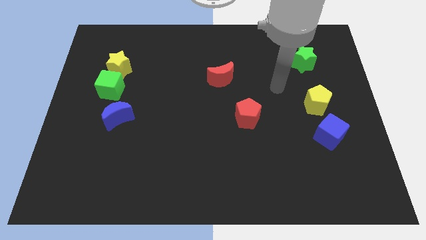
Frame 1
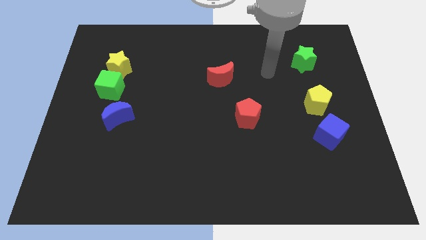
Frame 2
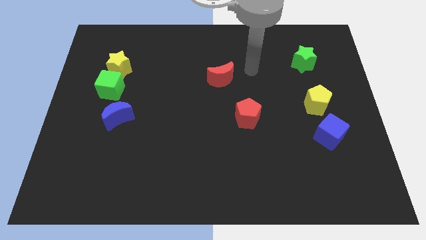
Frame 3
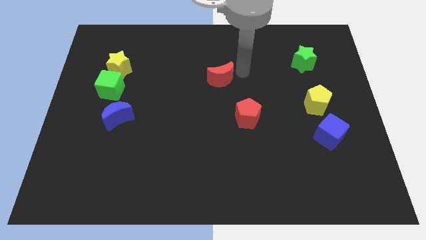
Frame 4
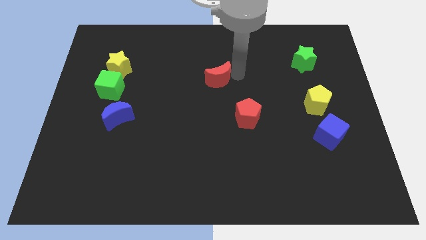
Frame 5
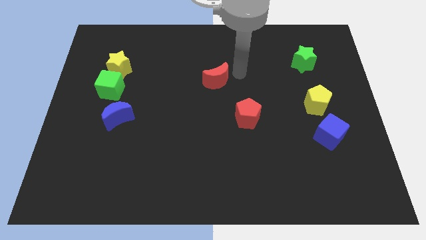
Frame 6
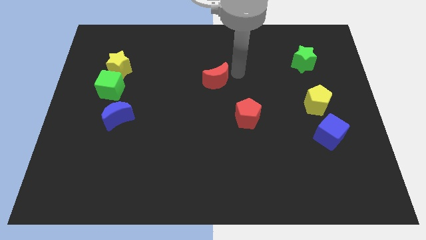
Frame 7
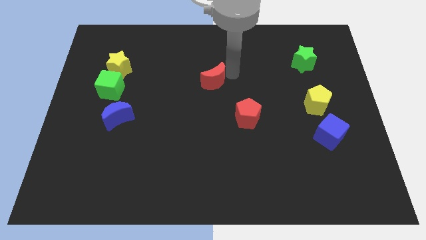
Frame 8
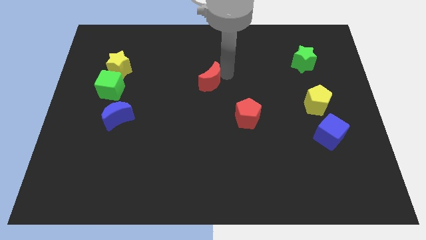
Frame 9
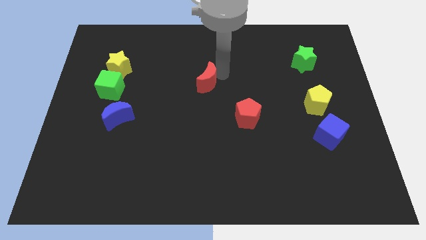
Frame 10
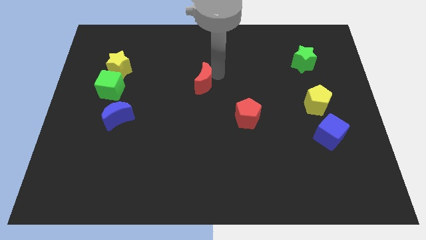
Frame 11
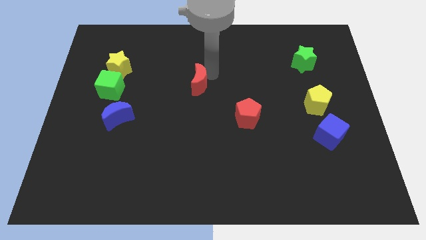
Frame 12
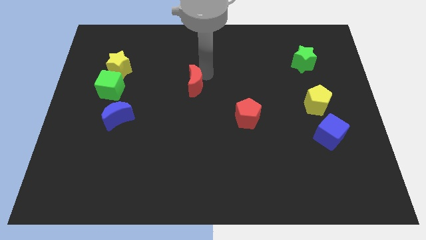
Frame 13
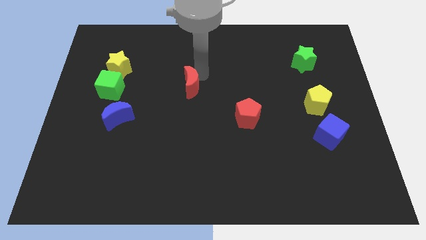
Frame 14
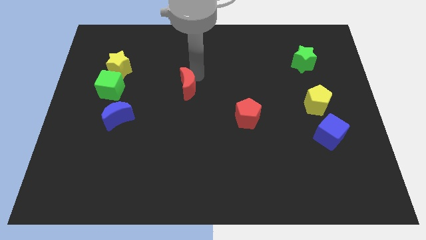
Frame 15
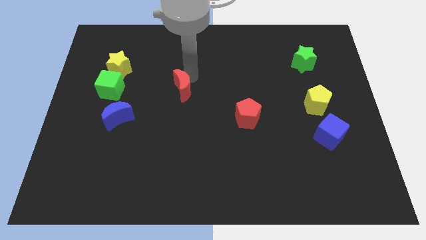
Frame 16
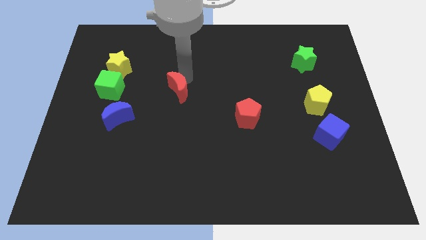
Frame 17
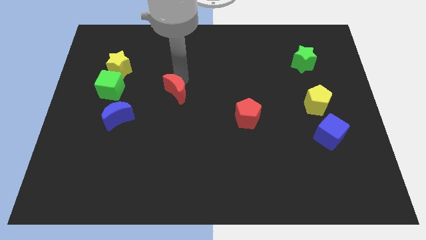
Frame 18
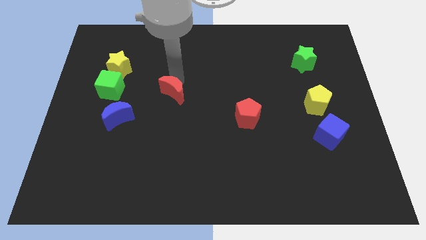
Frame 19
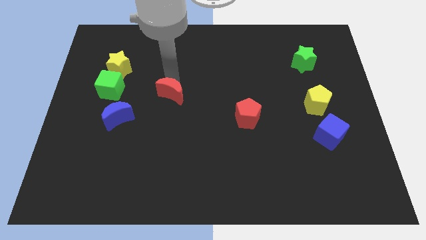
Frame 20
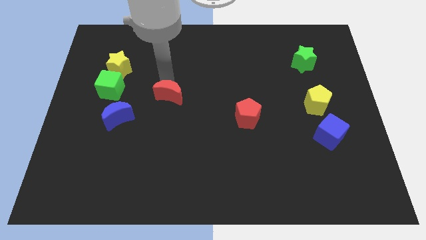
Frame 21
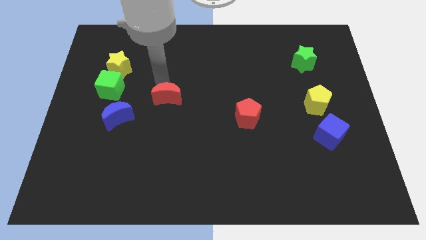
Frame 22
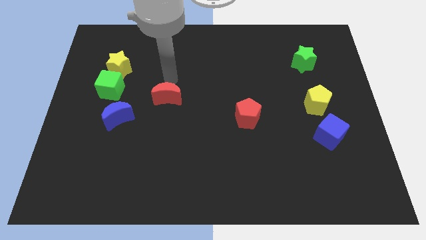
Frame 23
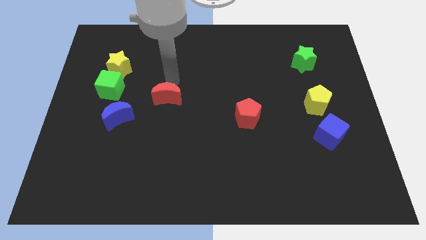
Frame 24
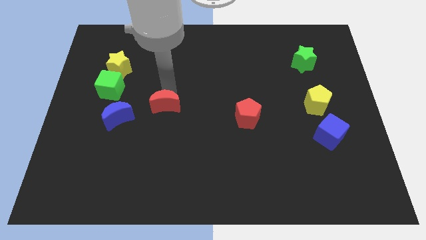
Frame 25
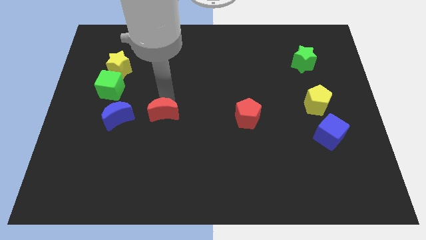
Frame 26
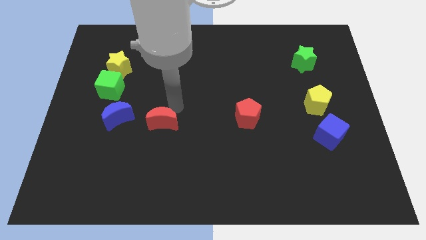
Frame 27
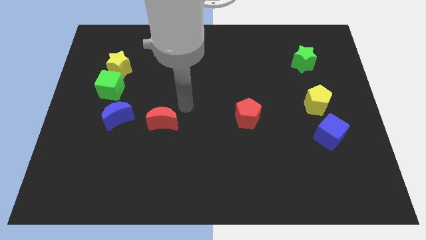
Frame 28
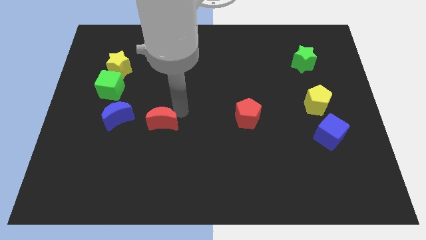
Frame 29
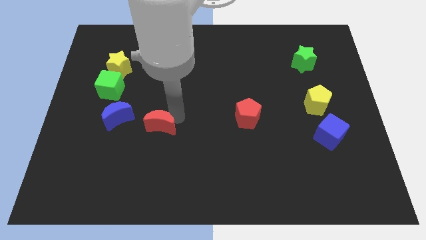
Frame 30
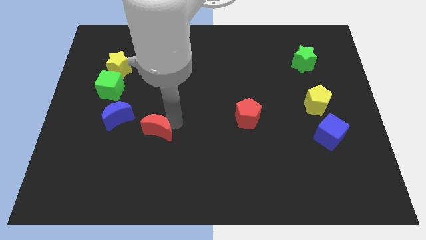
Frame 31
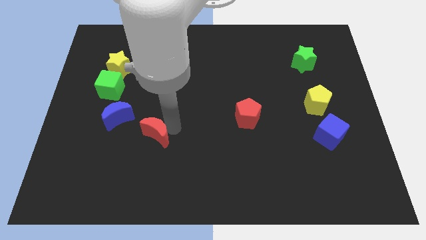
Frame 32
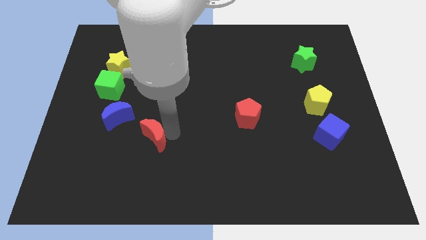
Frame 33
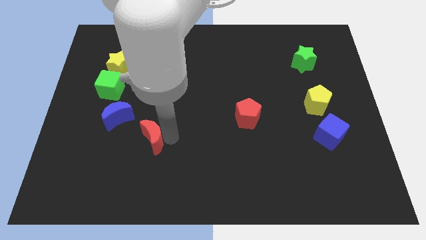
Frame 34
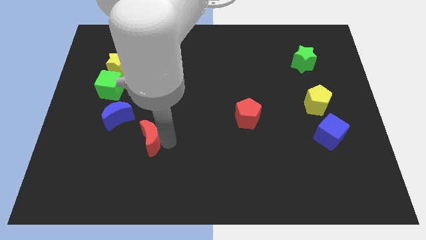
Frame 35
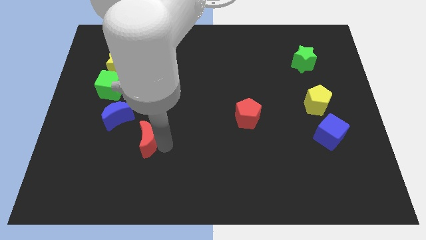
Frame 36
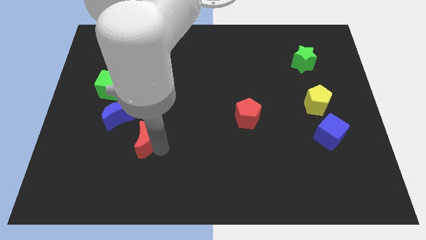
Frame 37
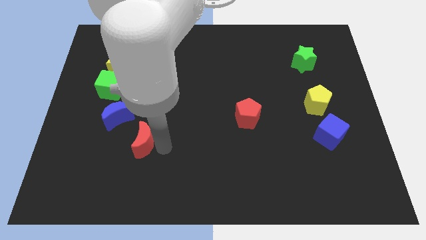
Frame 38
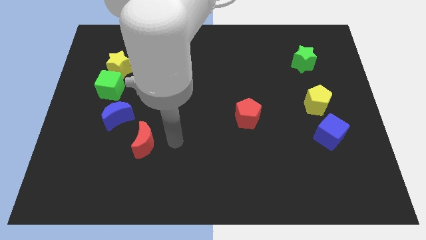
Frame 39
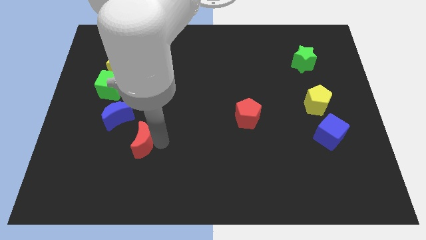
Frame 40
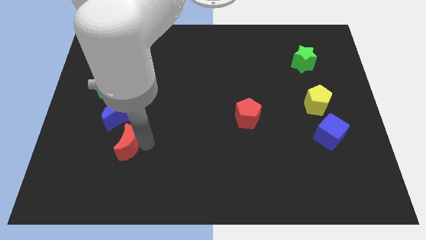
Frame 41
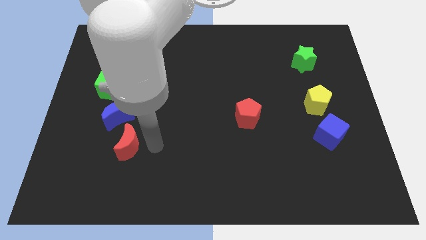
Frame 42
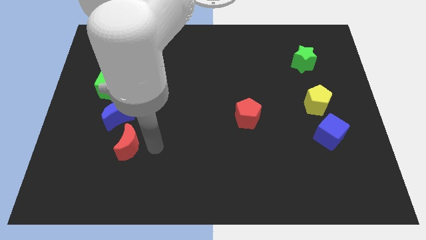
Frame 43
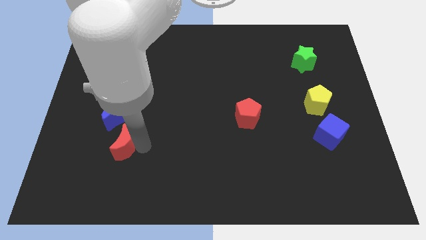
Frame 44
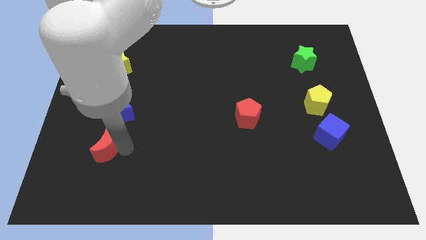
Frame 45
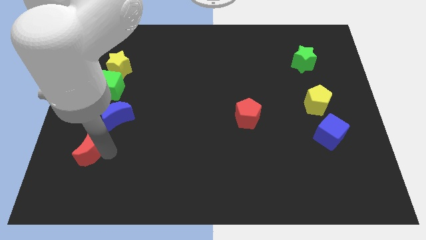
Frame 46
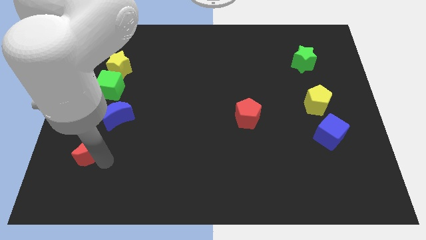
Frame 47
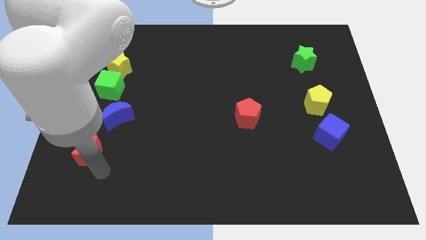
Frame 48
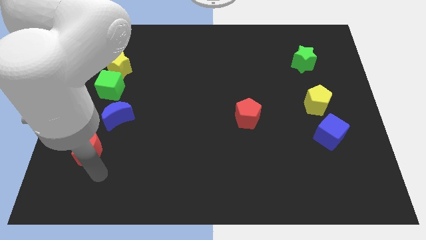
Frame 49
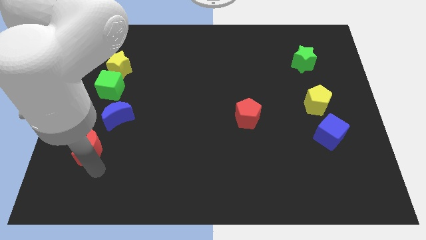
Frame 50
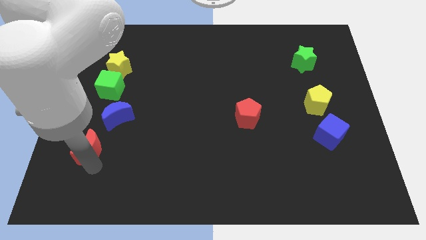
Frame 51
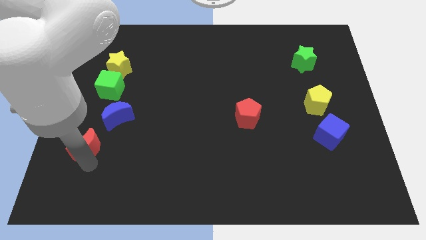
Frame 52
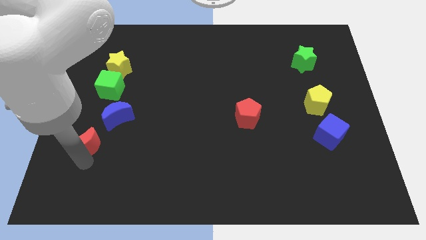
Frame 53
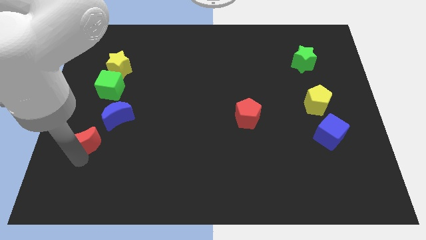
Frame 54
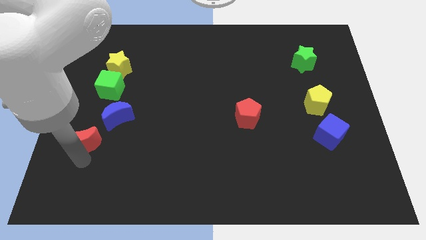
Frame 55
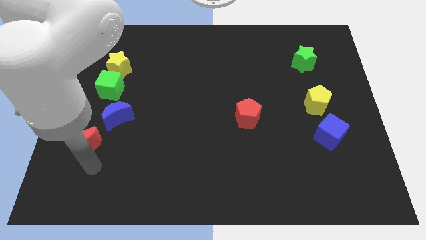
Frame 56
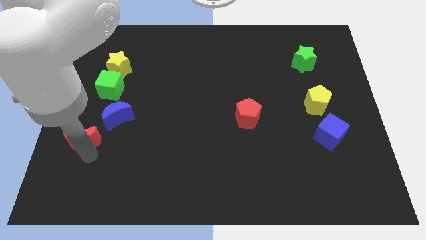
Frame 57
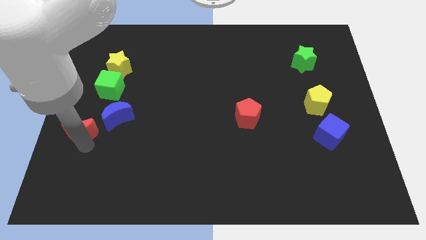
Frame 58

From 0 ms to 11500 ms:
slide the red moon to the left side of the board

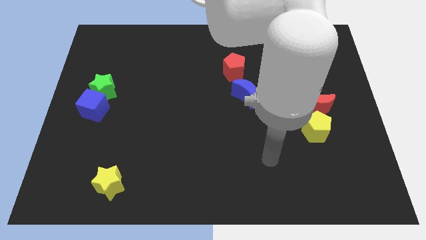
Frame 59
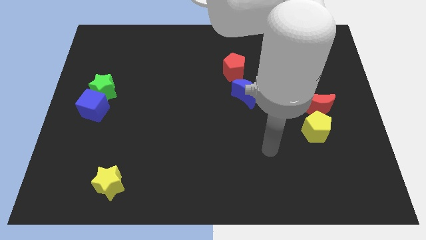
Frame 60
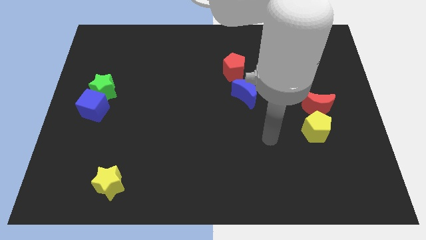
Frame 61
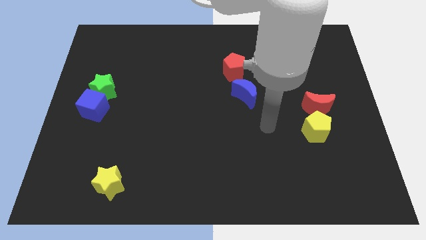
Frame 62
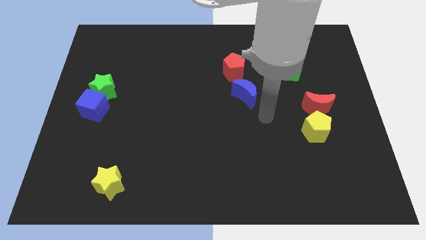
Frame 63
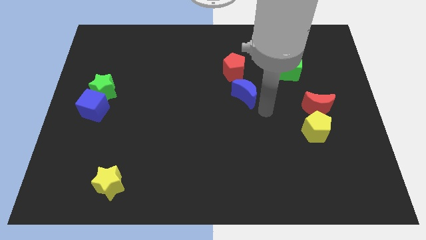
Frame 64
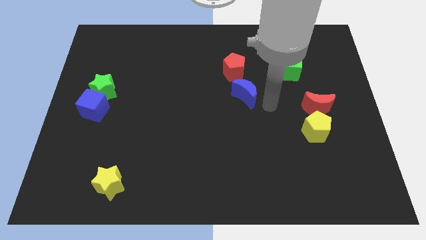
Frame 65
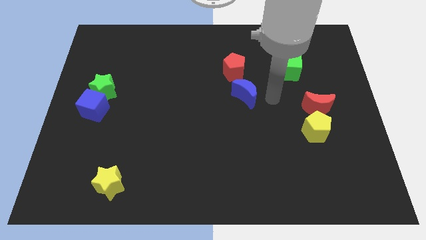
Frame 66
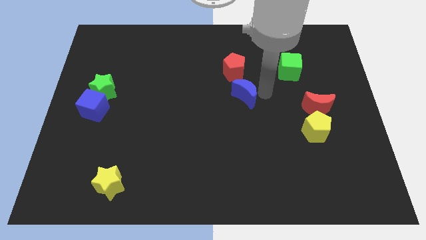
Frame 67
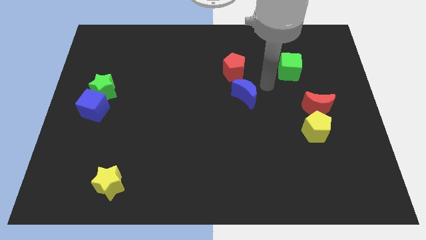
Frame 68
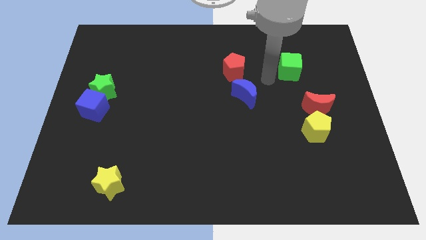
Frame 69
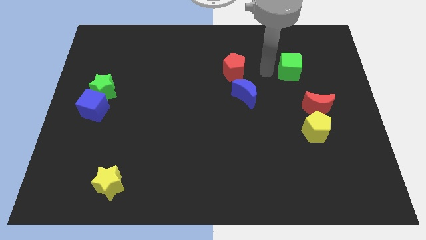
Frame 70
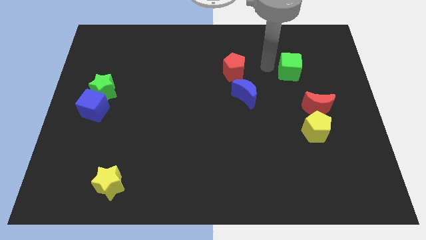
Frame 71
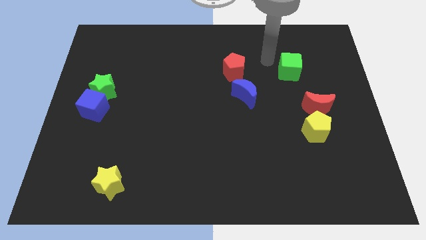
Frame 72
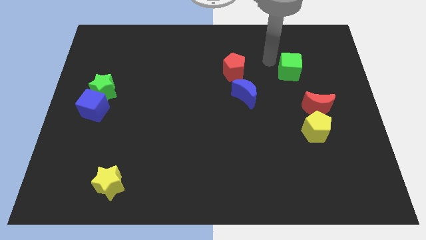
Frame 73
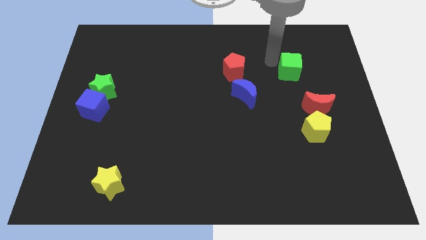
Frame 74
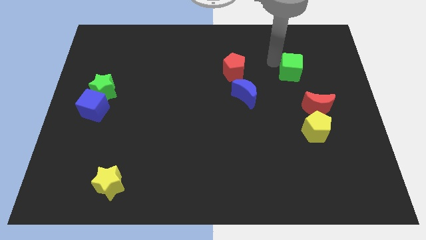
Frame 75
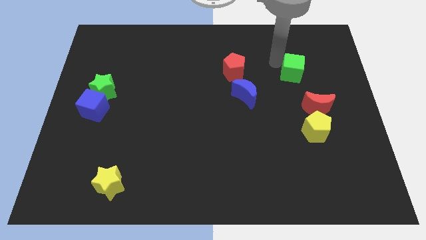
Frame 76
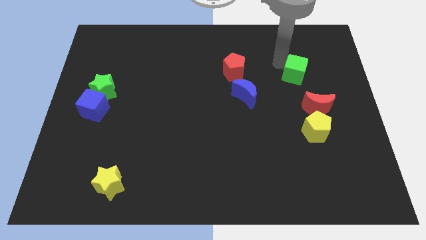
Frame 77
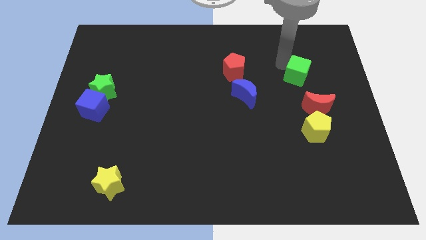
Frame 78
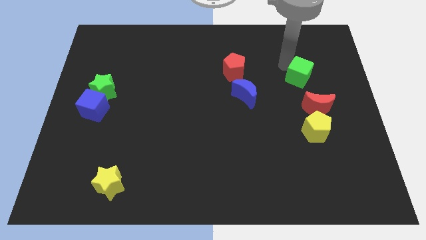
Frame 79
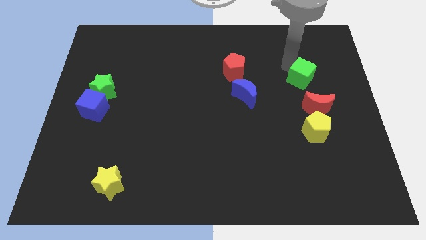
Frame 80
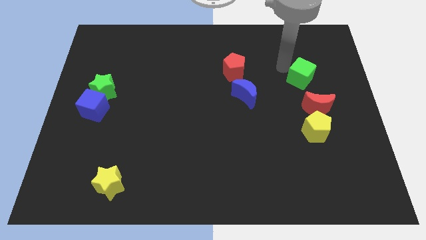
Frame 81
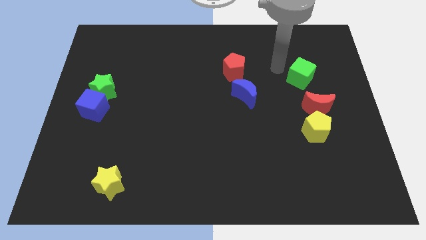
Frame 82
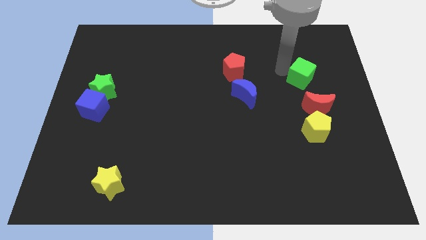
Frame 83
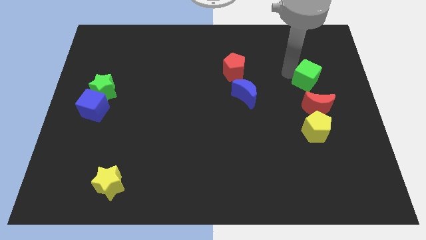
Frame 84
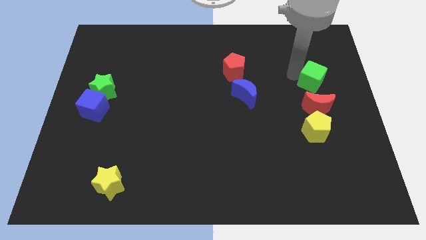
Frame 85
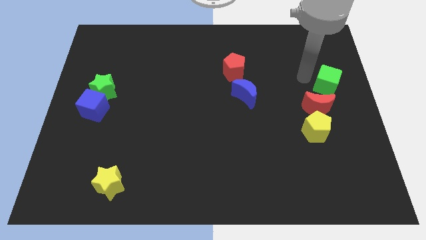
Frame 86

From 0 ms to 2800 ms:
push the green cube to the right side of the board
